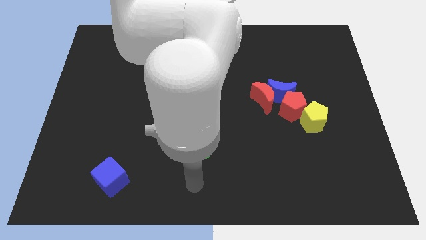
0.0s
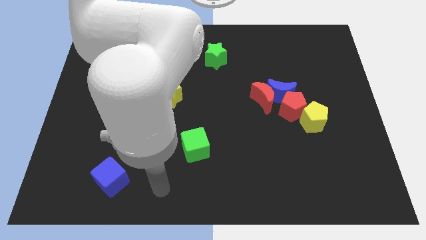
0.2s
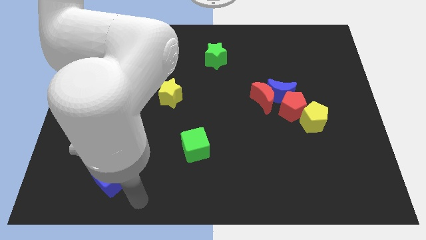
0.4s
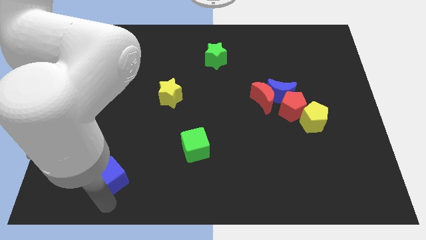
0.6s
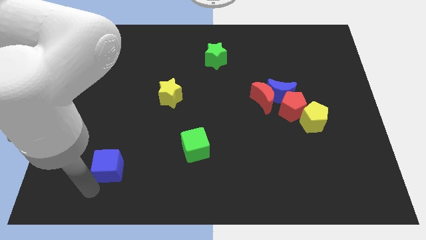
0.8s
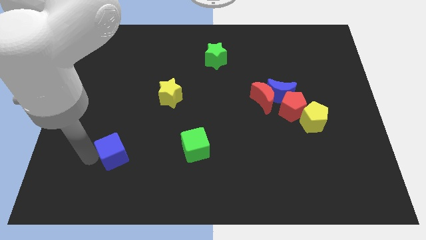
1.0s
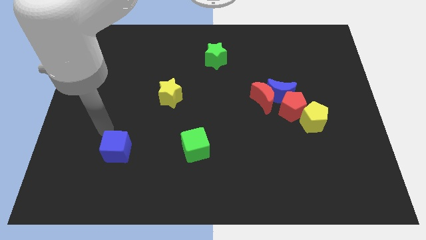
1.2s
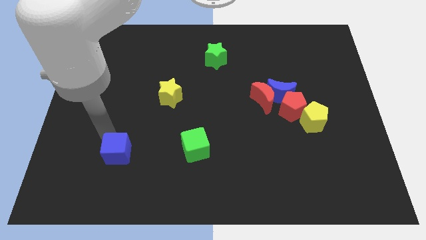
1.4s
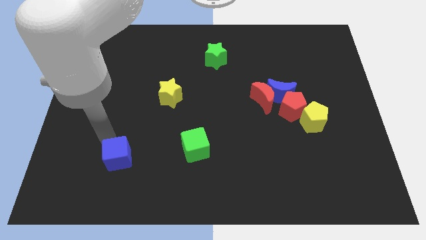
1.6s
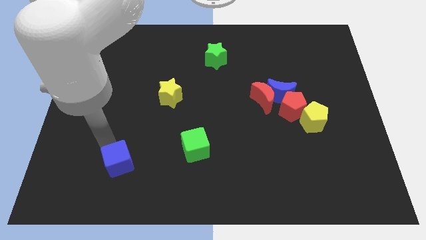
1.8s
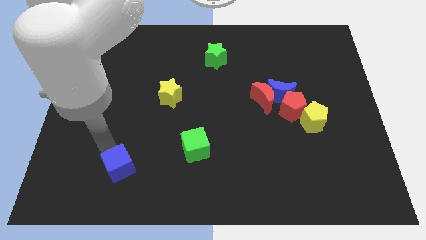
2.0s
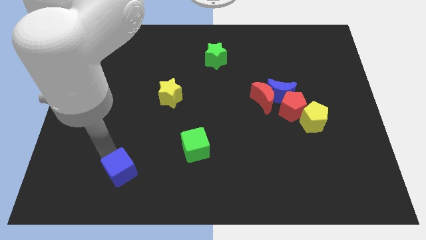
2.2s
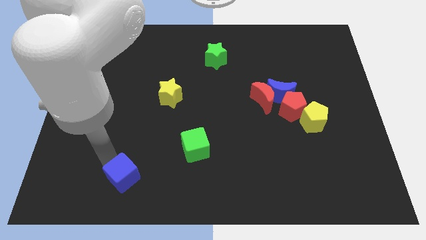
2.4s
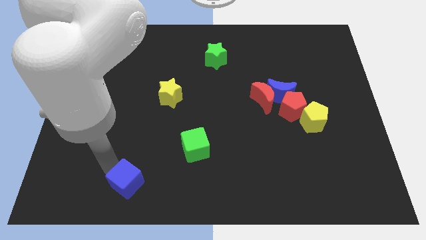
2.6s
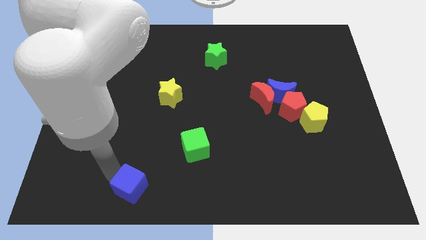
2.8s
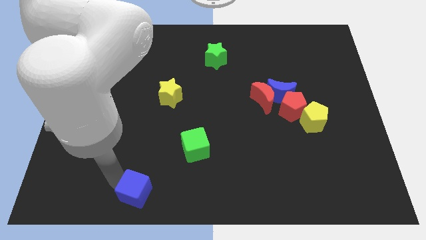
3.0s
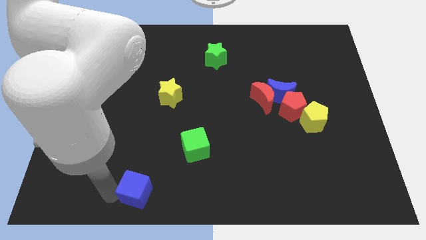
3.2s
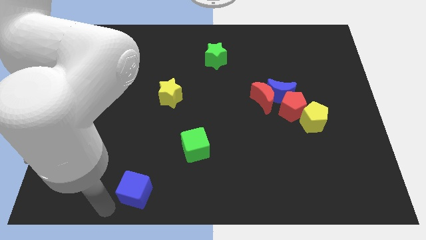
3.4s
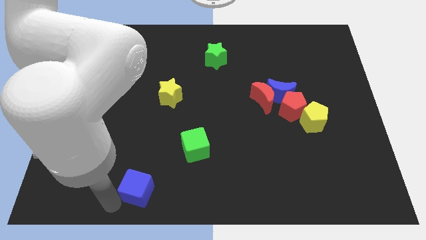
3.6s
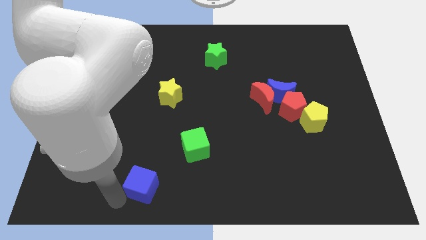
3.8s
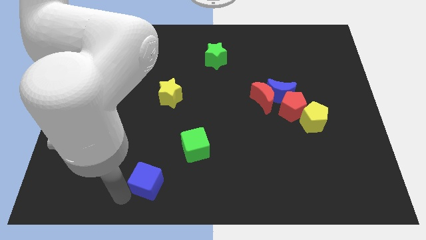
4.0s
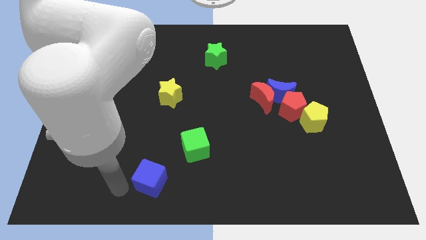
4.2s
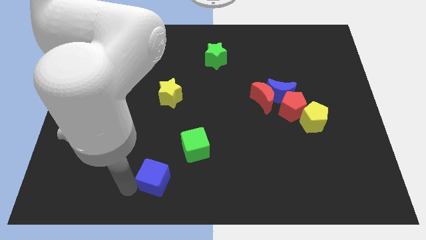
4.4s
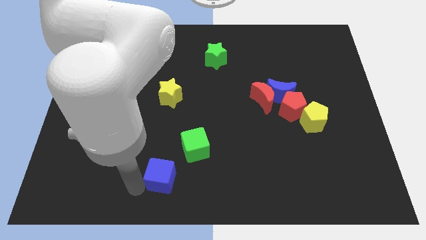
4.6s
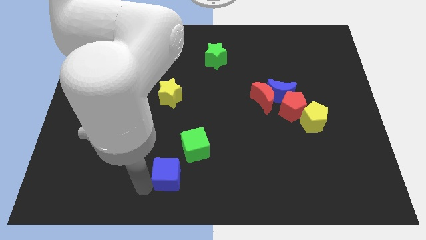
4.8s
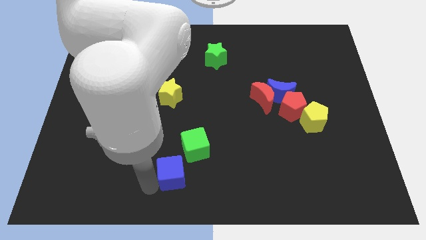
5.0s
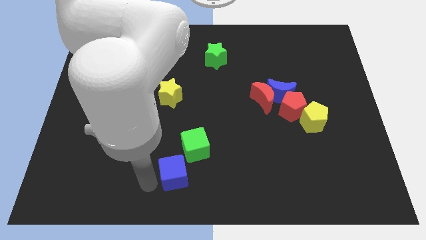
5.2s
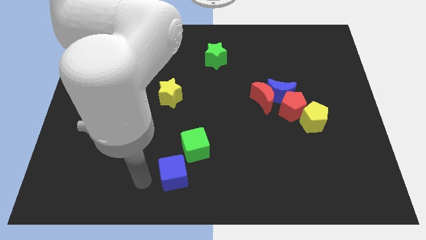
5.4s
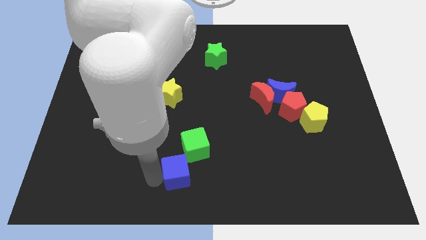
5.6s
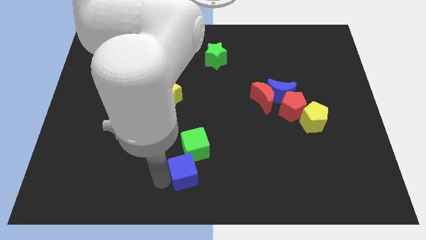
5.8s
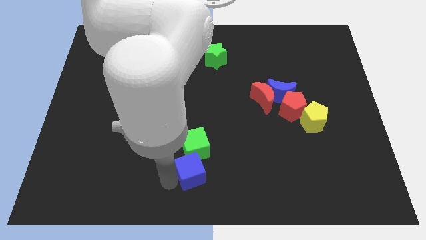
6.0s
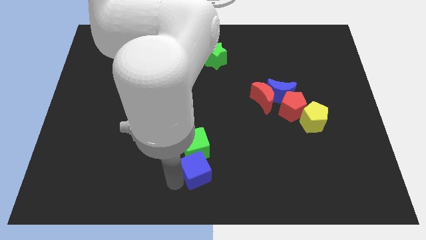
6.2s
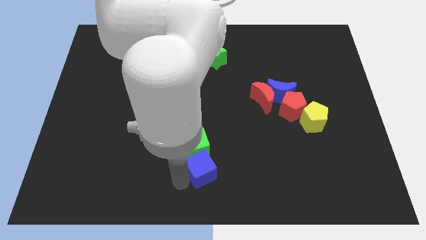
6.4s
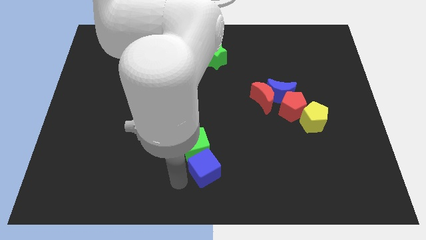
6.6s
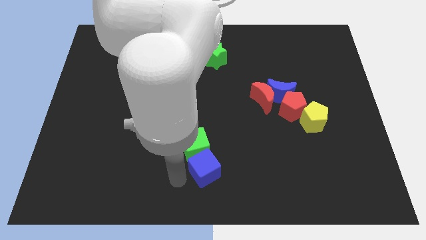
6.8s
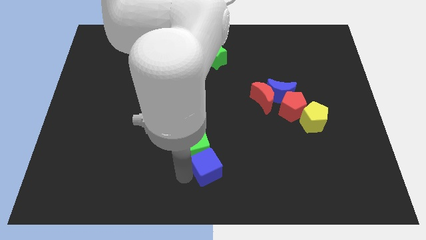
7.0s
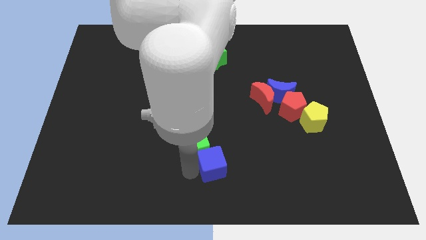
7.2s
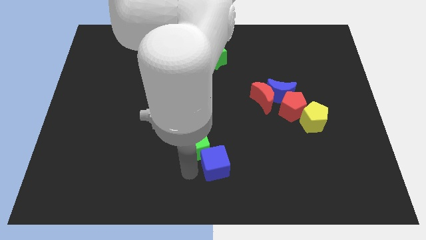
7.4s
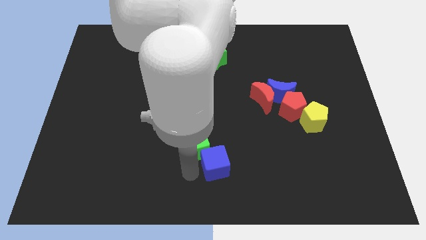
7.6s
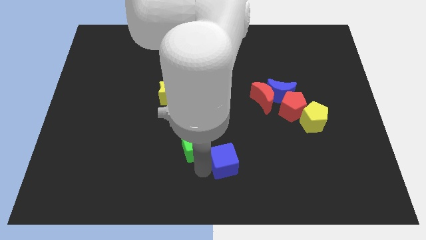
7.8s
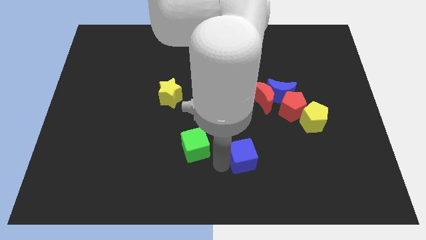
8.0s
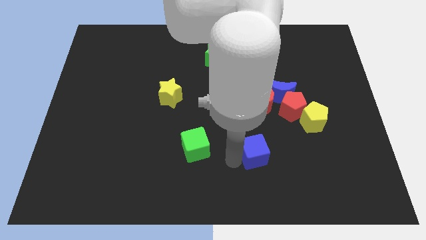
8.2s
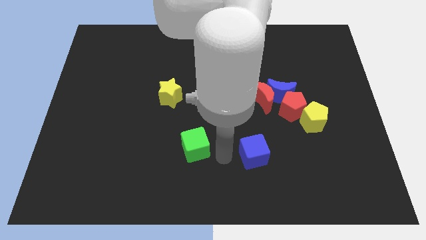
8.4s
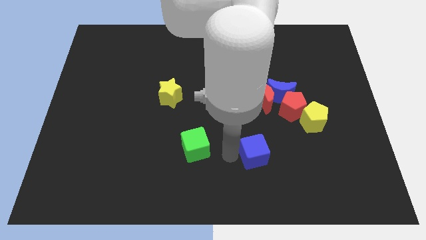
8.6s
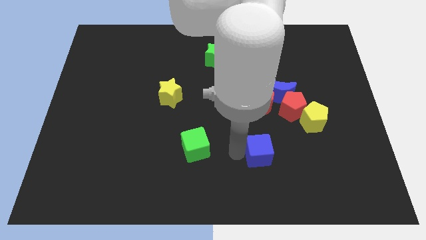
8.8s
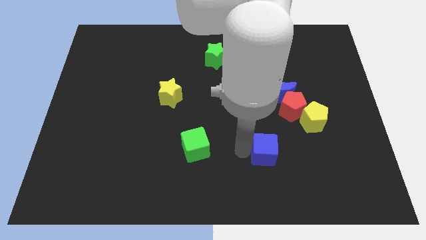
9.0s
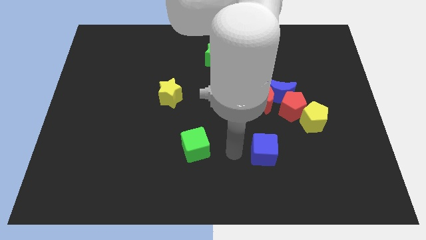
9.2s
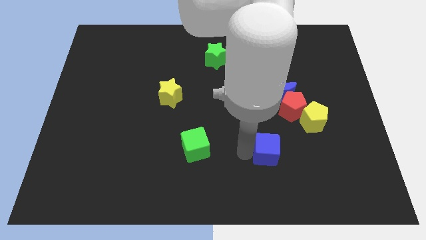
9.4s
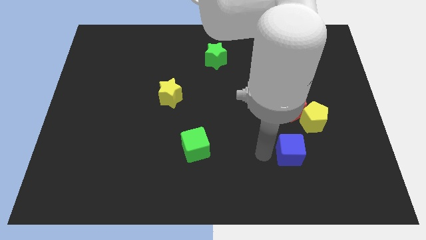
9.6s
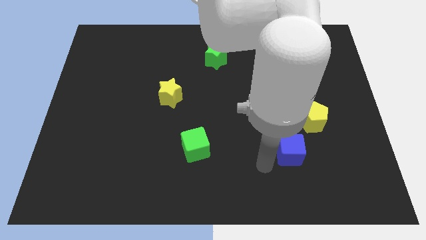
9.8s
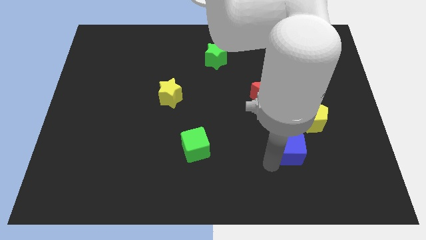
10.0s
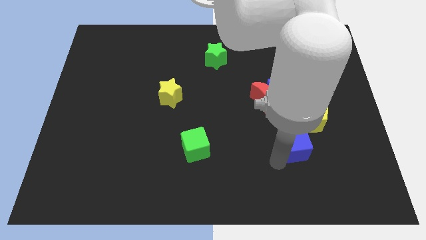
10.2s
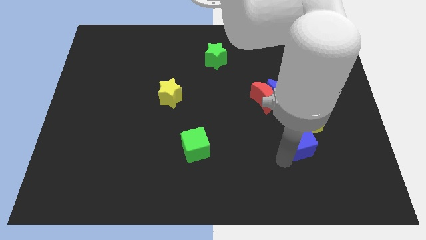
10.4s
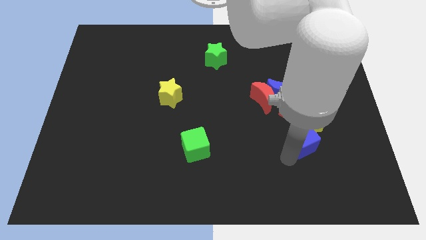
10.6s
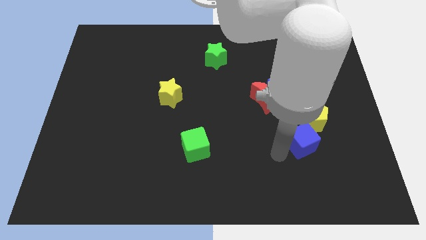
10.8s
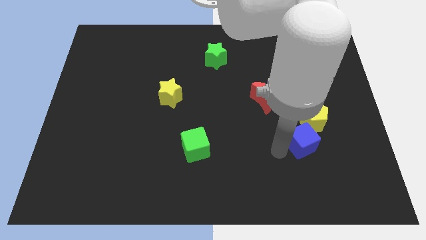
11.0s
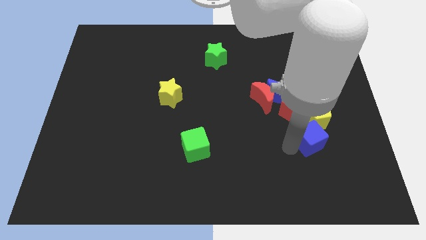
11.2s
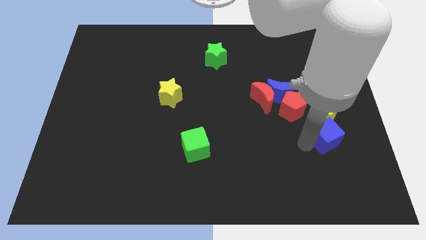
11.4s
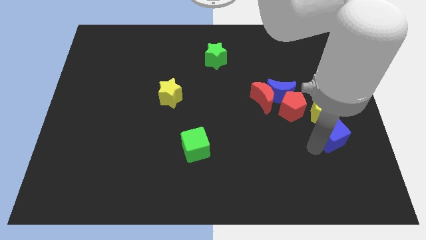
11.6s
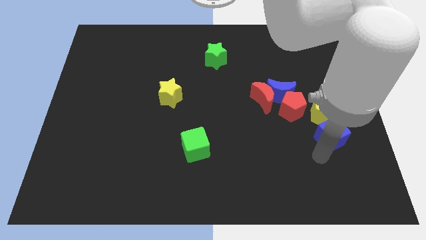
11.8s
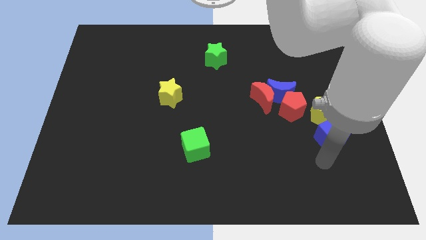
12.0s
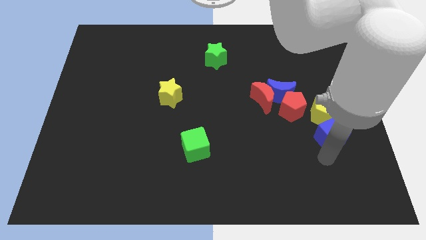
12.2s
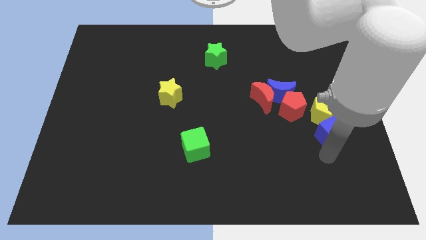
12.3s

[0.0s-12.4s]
slide the blue cube towards the yellow pentagon

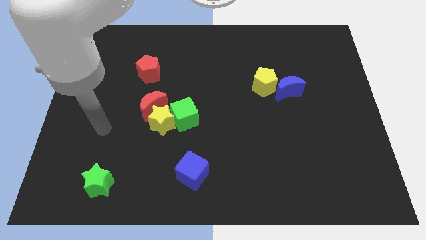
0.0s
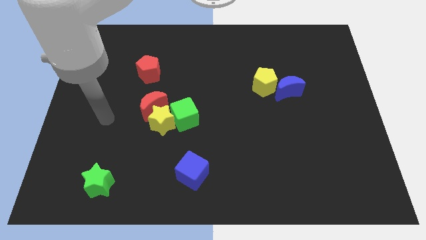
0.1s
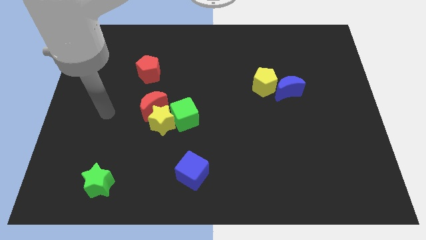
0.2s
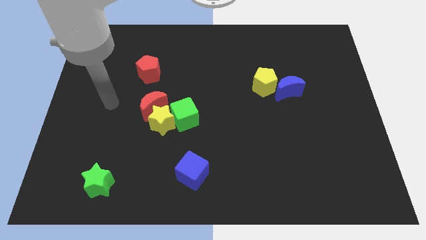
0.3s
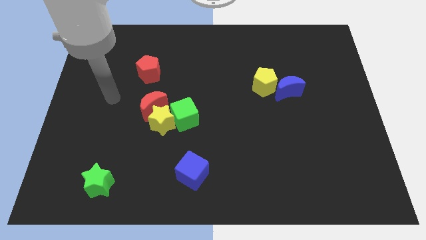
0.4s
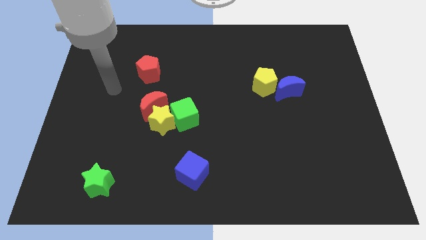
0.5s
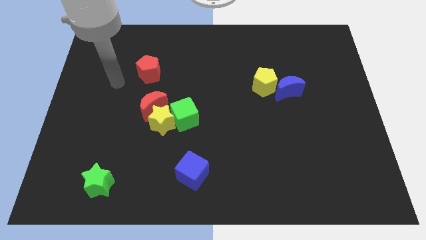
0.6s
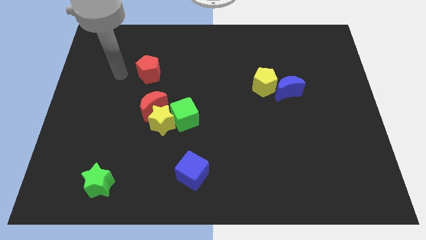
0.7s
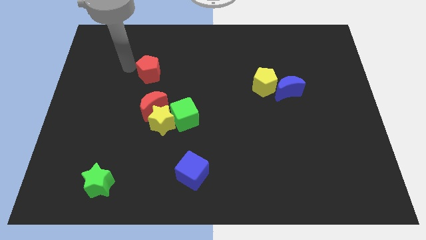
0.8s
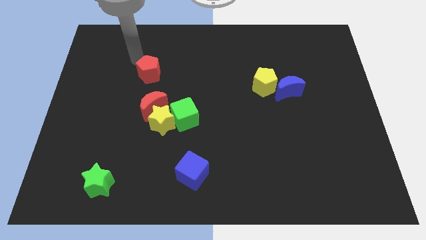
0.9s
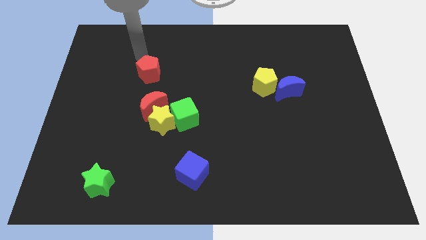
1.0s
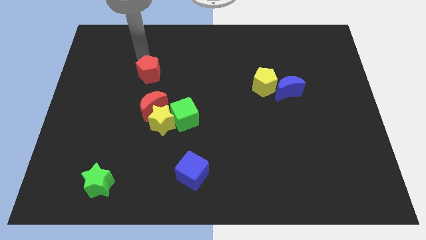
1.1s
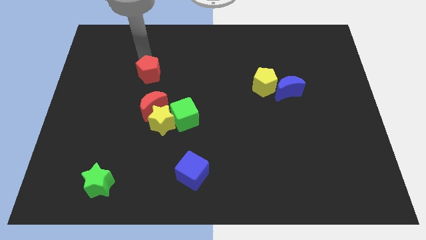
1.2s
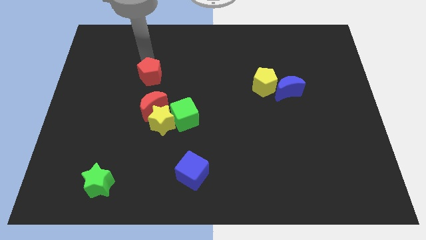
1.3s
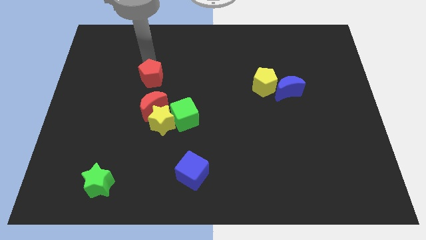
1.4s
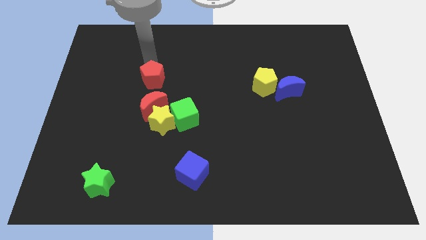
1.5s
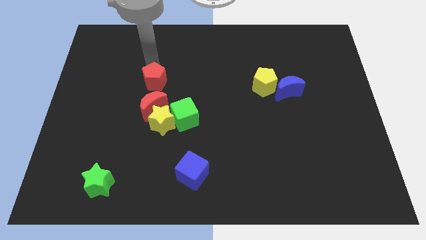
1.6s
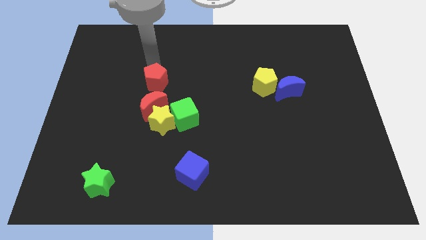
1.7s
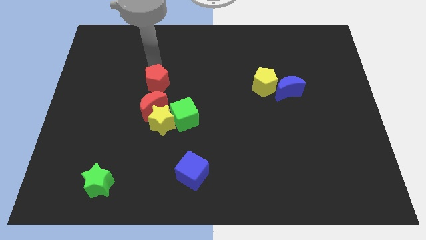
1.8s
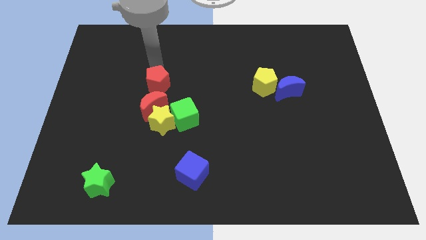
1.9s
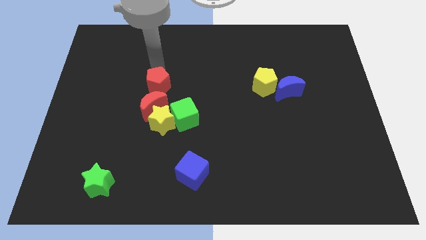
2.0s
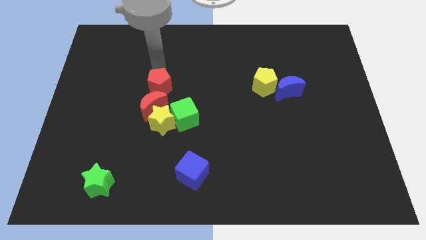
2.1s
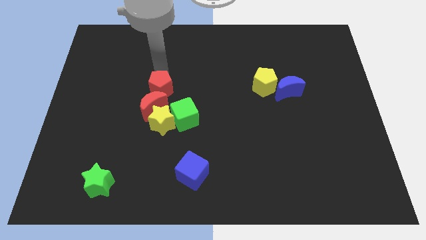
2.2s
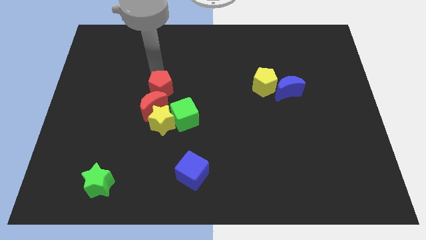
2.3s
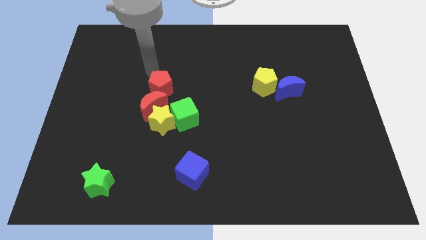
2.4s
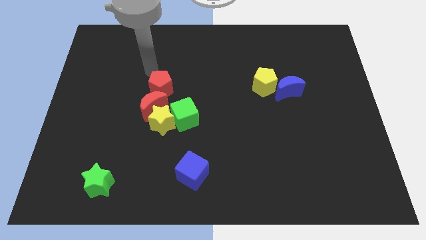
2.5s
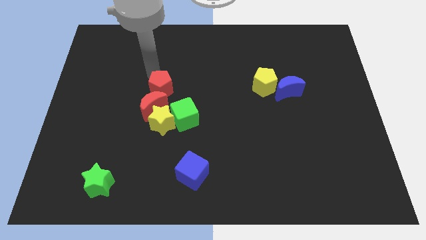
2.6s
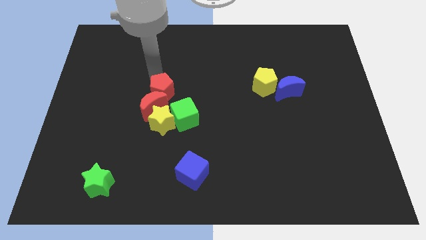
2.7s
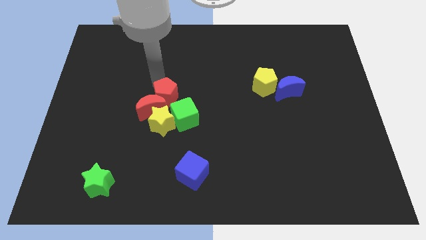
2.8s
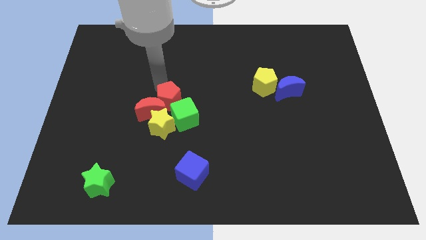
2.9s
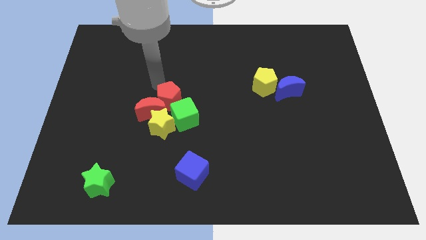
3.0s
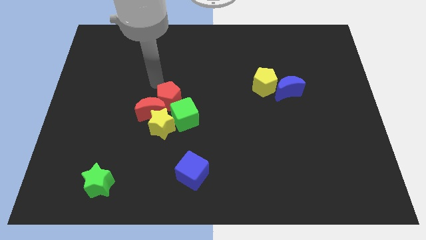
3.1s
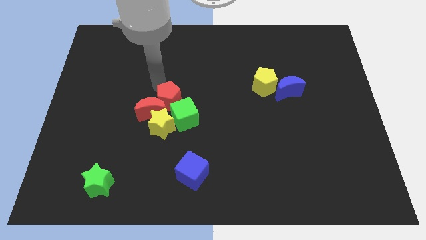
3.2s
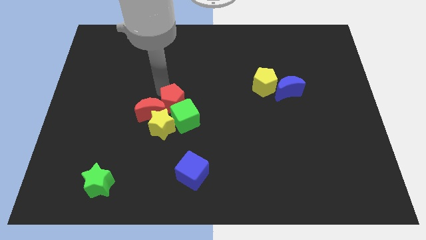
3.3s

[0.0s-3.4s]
slide the red pentagon to the green cube
